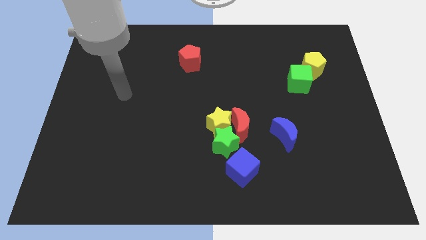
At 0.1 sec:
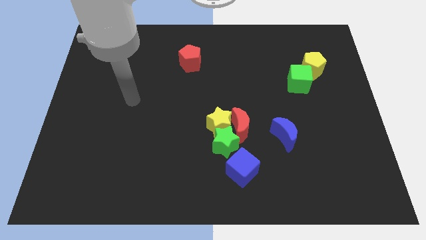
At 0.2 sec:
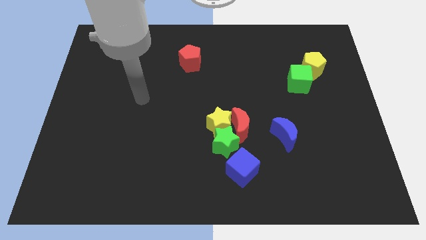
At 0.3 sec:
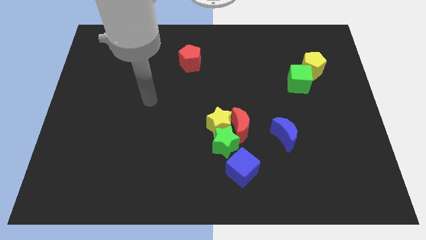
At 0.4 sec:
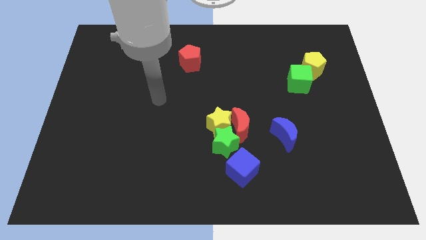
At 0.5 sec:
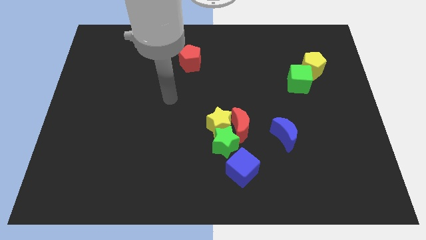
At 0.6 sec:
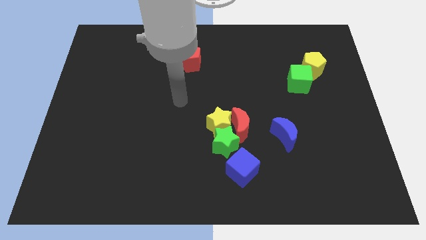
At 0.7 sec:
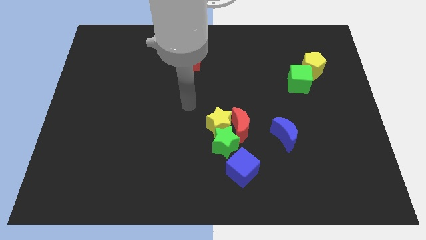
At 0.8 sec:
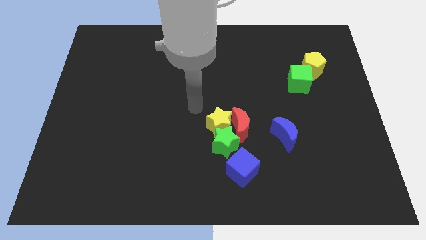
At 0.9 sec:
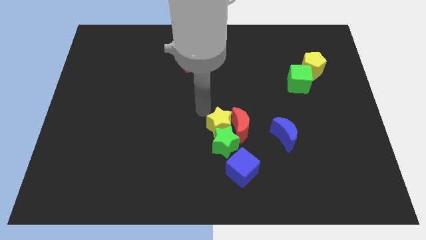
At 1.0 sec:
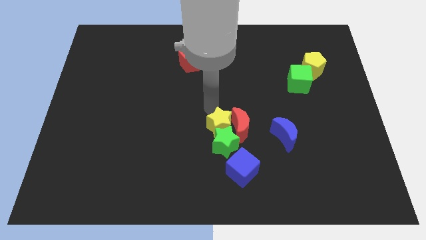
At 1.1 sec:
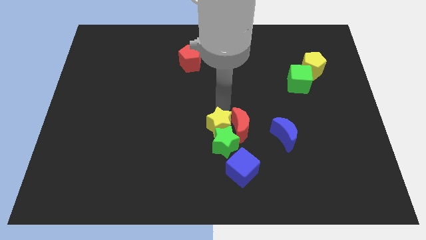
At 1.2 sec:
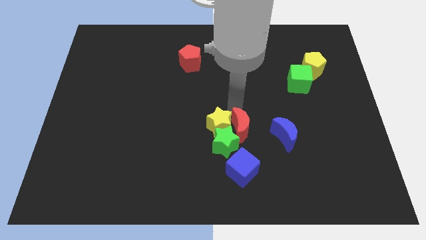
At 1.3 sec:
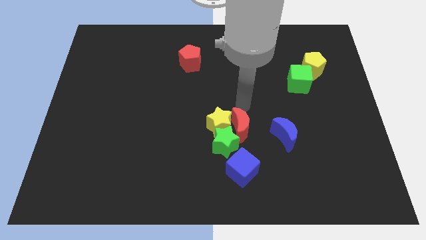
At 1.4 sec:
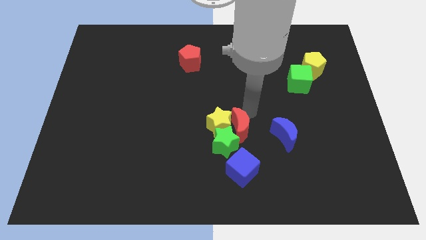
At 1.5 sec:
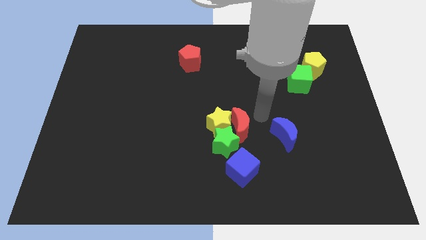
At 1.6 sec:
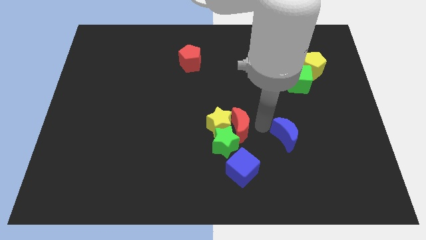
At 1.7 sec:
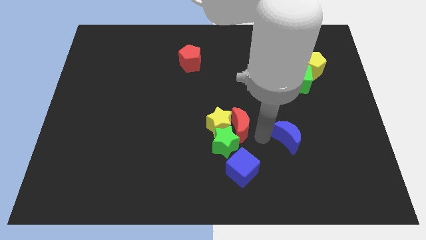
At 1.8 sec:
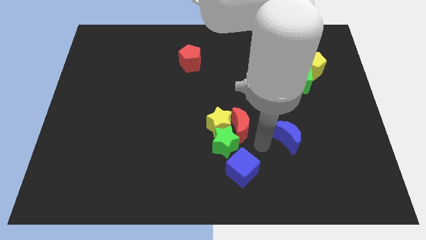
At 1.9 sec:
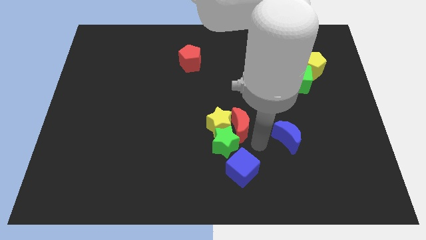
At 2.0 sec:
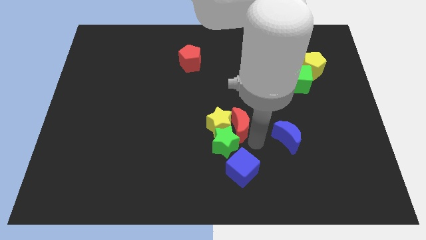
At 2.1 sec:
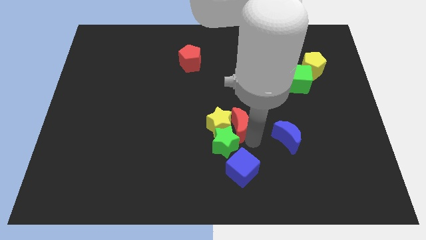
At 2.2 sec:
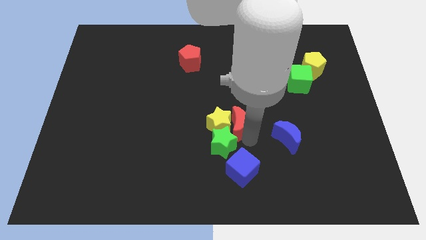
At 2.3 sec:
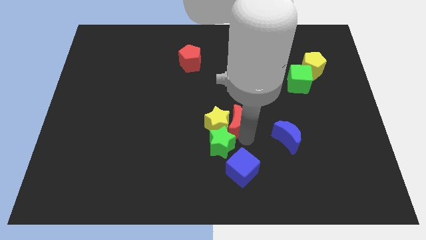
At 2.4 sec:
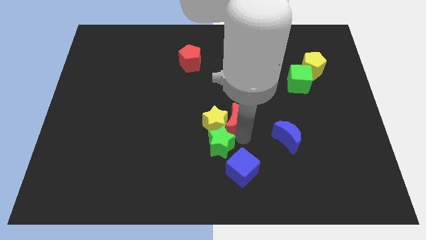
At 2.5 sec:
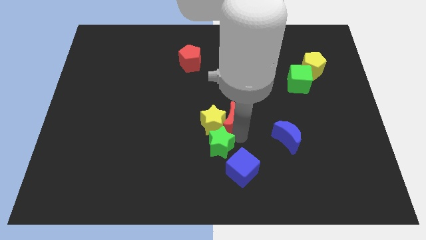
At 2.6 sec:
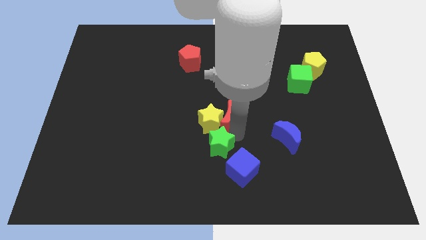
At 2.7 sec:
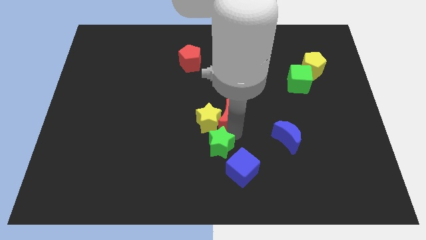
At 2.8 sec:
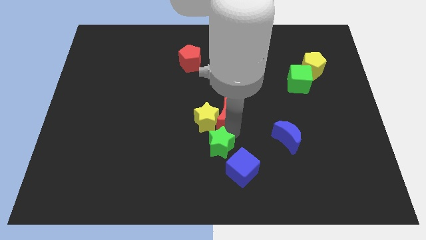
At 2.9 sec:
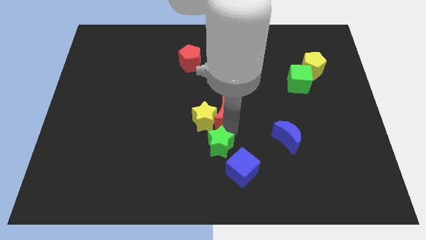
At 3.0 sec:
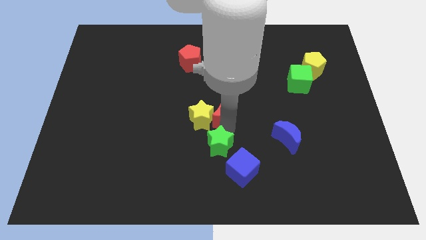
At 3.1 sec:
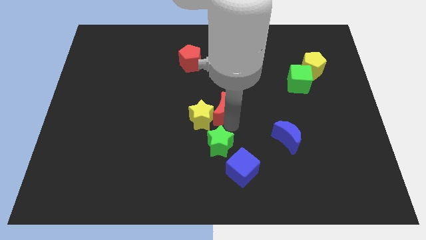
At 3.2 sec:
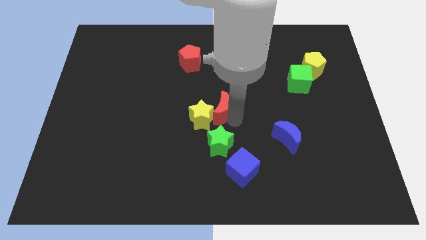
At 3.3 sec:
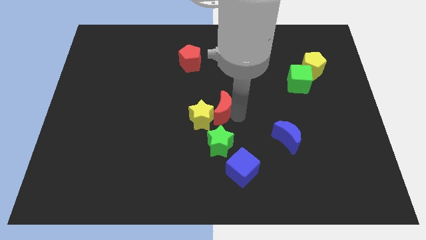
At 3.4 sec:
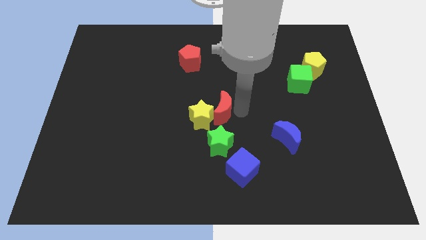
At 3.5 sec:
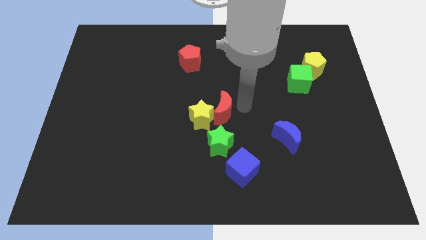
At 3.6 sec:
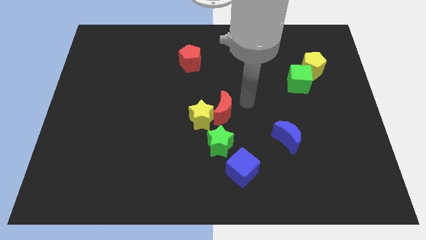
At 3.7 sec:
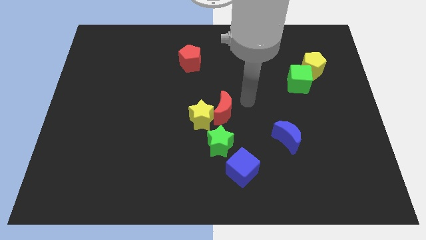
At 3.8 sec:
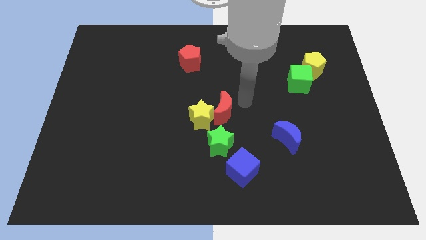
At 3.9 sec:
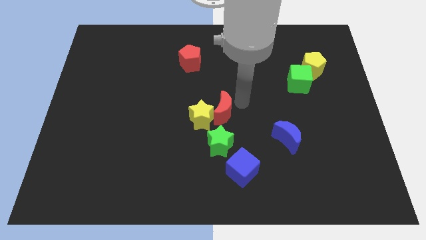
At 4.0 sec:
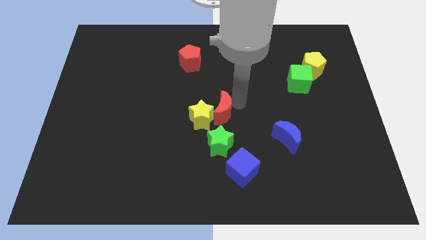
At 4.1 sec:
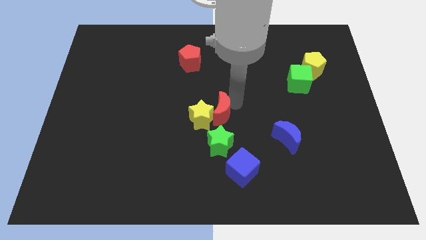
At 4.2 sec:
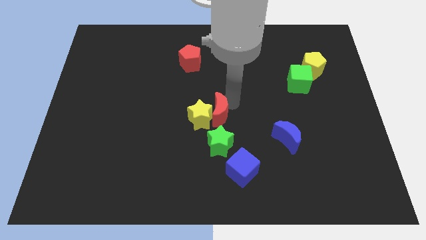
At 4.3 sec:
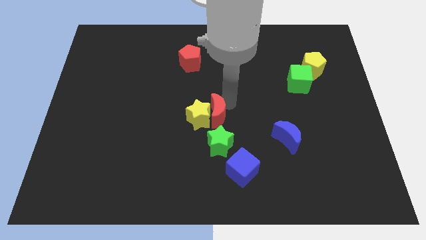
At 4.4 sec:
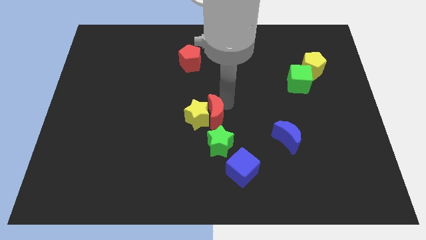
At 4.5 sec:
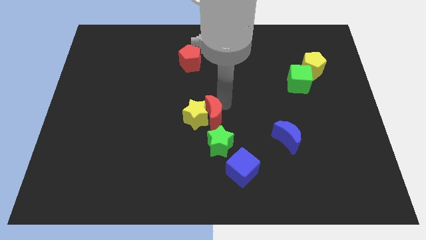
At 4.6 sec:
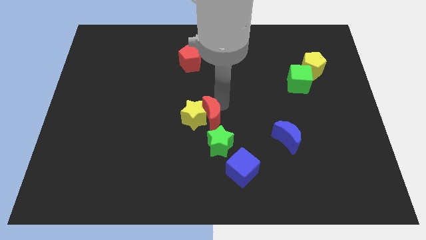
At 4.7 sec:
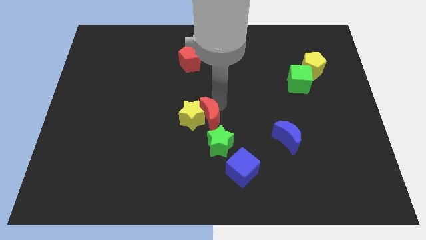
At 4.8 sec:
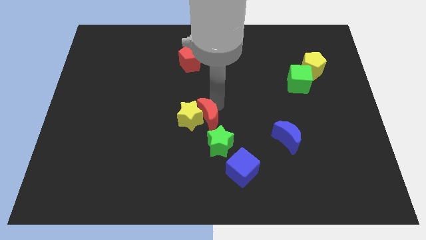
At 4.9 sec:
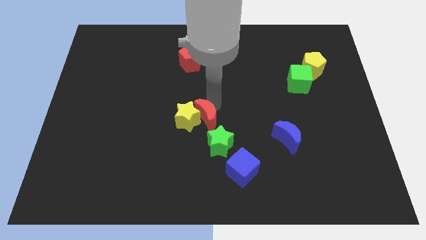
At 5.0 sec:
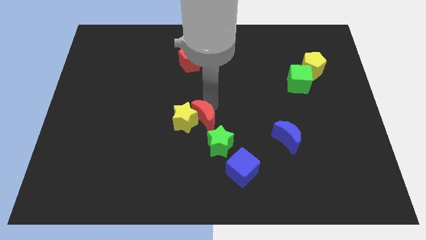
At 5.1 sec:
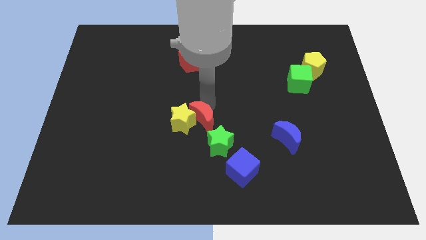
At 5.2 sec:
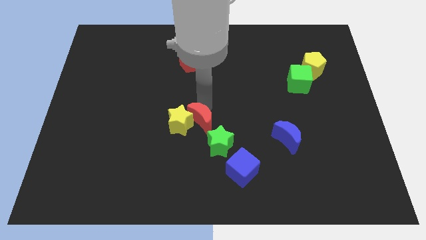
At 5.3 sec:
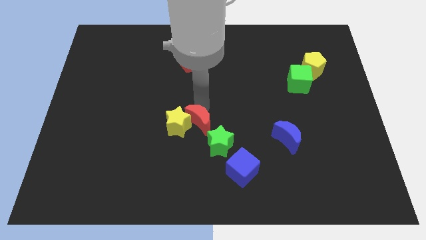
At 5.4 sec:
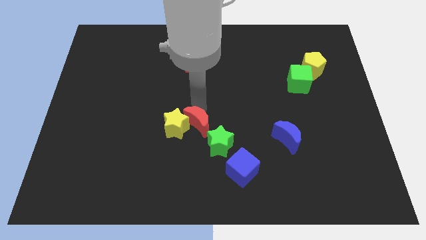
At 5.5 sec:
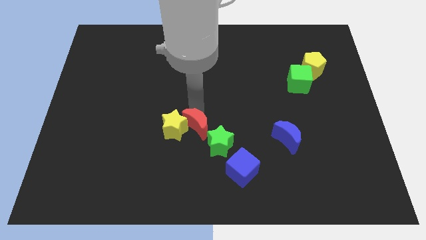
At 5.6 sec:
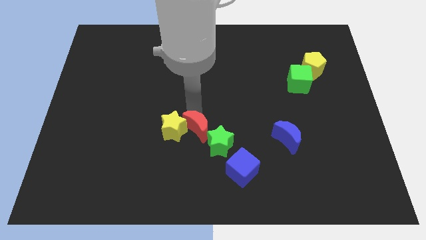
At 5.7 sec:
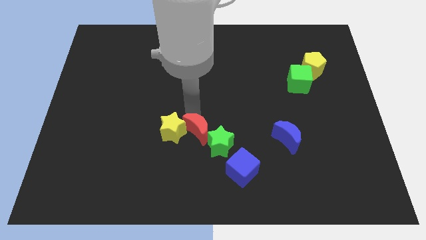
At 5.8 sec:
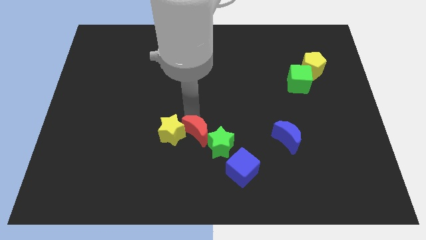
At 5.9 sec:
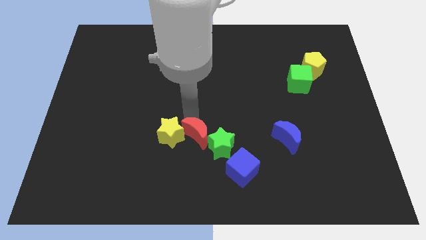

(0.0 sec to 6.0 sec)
slightly slide the red moon down and left

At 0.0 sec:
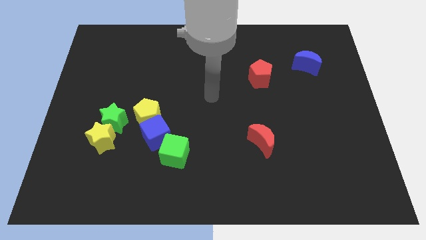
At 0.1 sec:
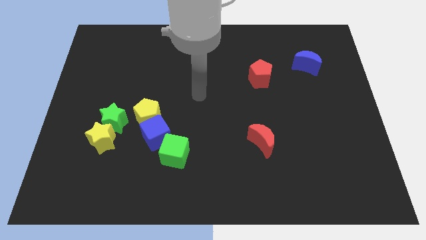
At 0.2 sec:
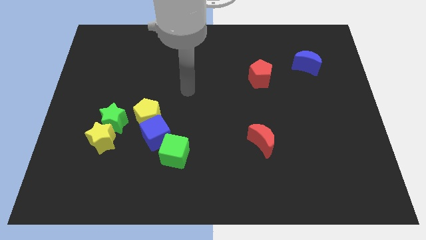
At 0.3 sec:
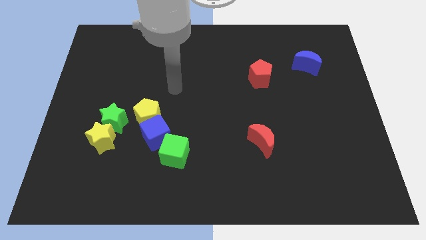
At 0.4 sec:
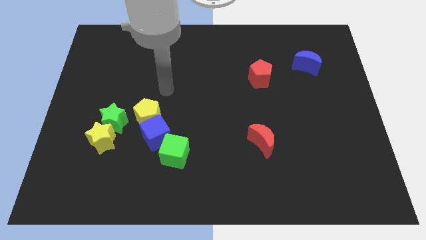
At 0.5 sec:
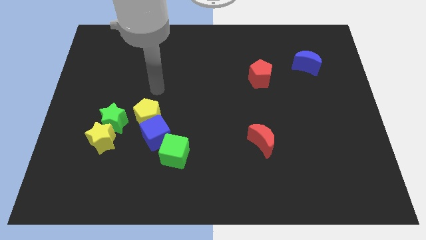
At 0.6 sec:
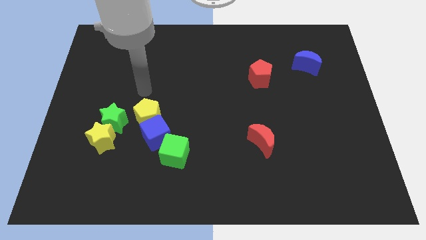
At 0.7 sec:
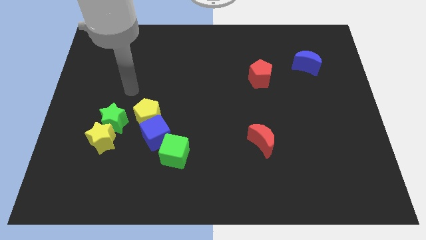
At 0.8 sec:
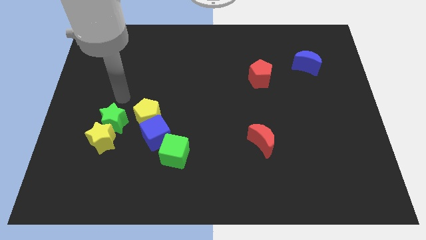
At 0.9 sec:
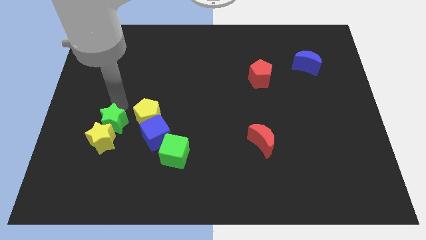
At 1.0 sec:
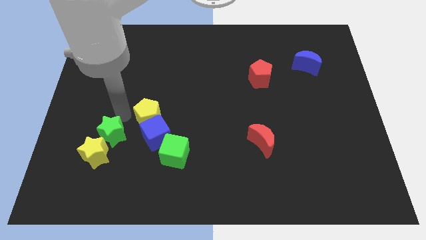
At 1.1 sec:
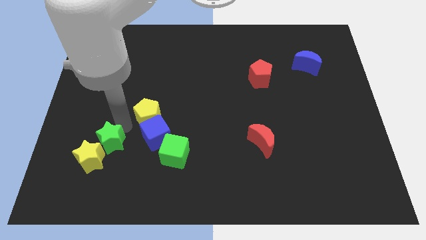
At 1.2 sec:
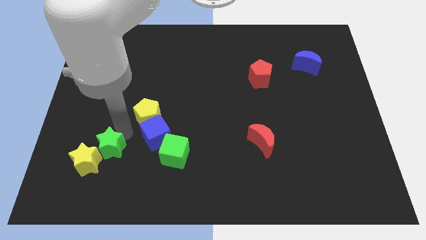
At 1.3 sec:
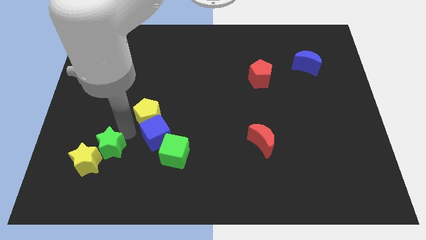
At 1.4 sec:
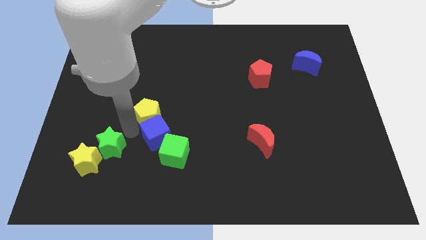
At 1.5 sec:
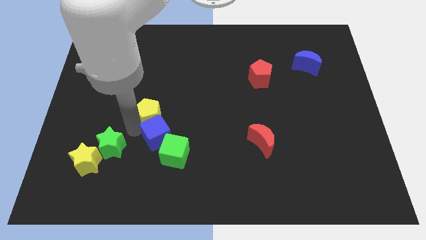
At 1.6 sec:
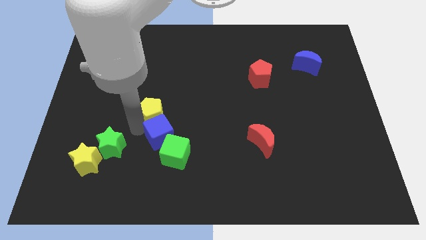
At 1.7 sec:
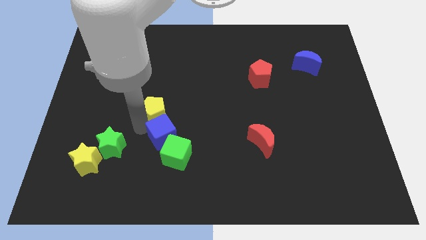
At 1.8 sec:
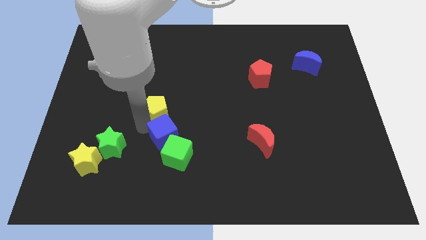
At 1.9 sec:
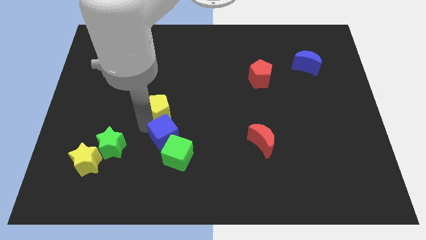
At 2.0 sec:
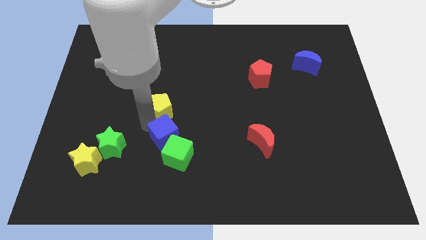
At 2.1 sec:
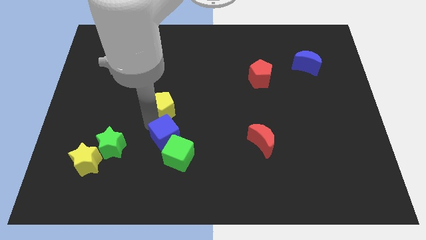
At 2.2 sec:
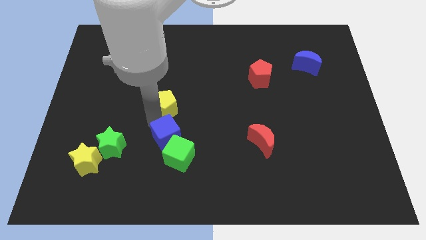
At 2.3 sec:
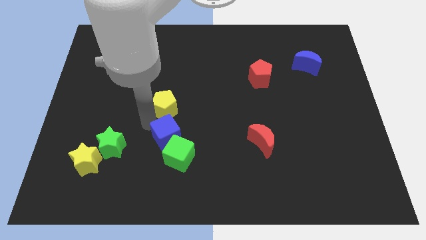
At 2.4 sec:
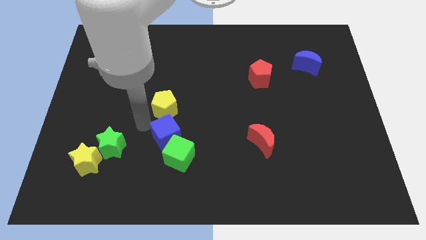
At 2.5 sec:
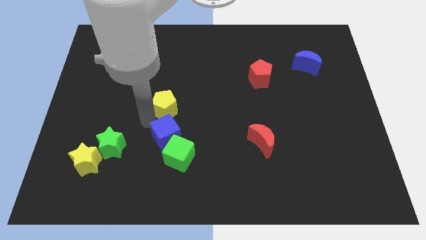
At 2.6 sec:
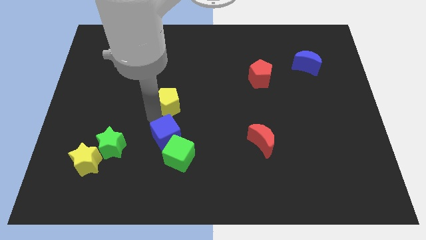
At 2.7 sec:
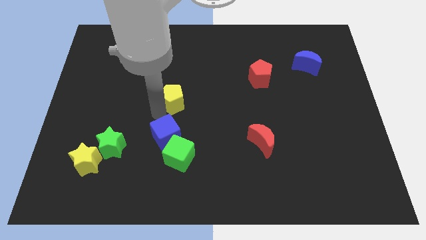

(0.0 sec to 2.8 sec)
slightly move the yellow pentagon up and right
